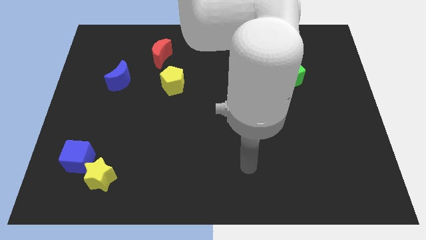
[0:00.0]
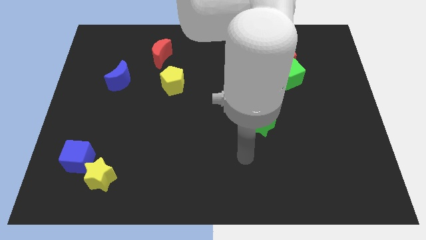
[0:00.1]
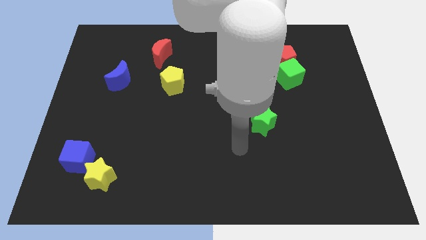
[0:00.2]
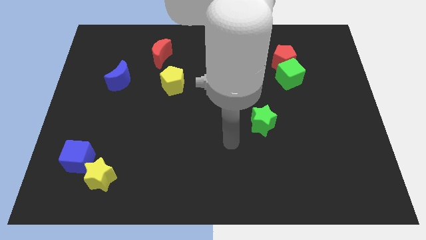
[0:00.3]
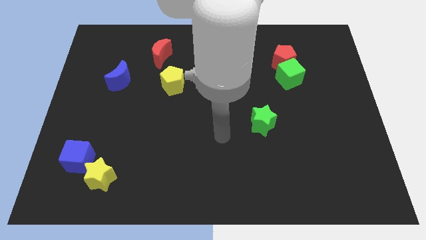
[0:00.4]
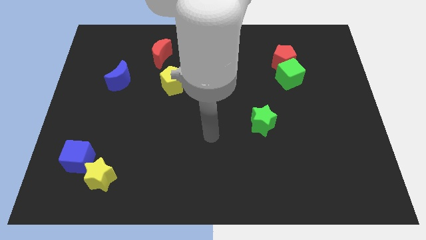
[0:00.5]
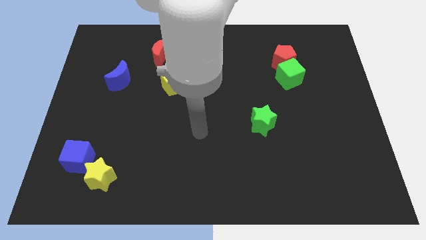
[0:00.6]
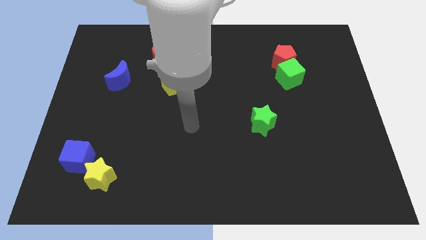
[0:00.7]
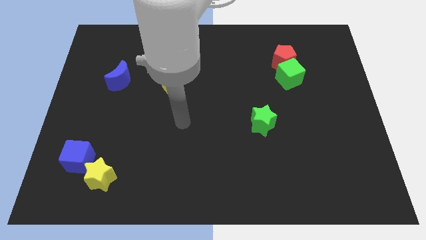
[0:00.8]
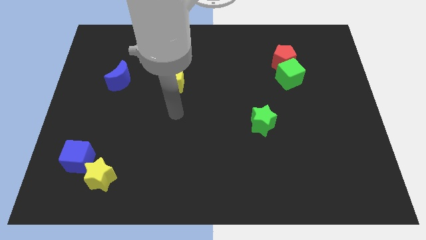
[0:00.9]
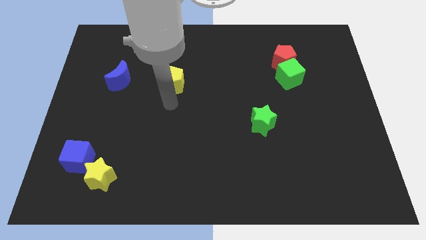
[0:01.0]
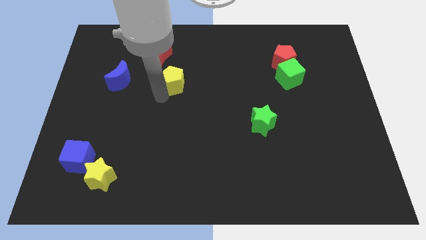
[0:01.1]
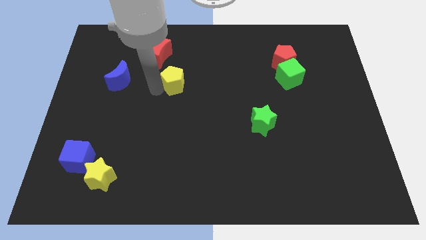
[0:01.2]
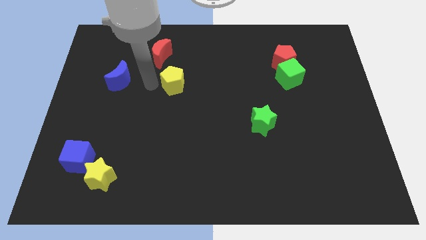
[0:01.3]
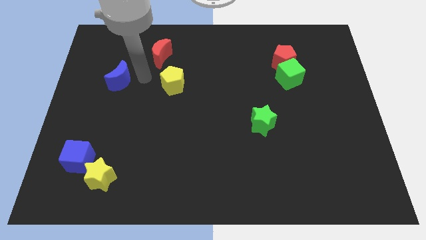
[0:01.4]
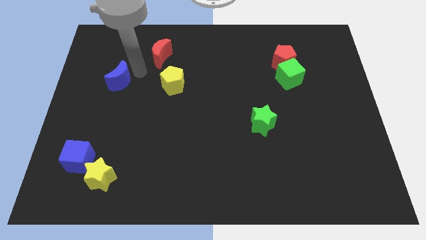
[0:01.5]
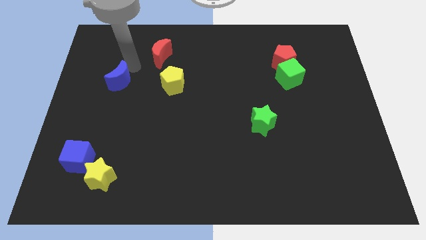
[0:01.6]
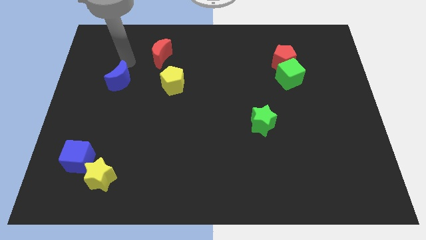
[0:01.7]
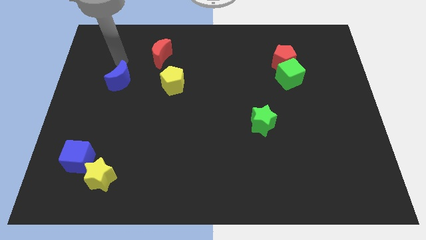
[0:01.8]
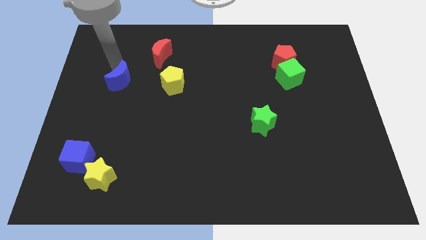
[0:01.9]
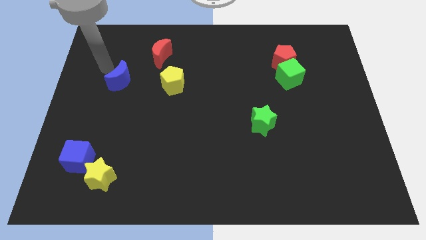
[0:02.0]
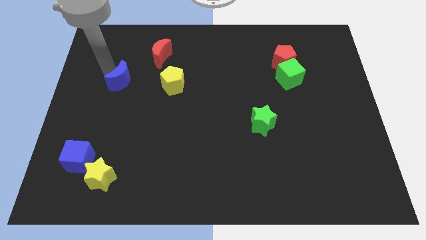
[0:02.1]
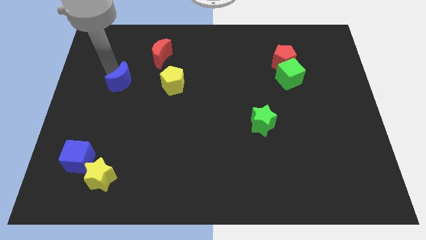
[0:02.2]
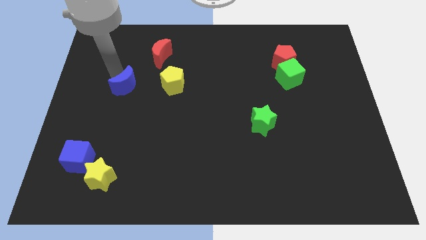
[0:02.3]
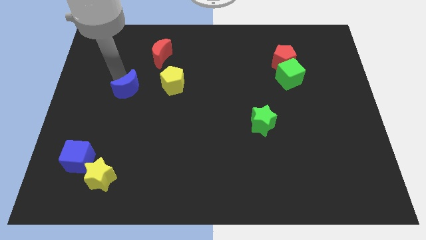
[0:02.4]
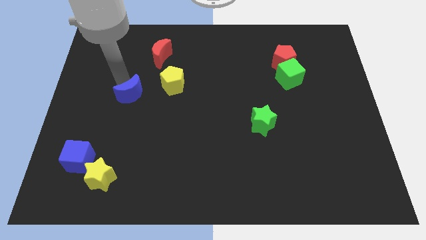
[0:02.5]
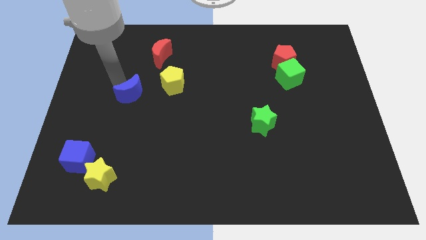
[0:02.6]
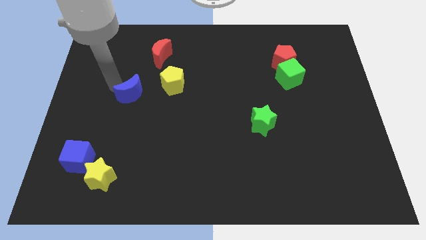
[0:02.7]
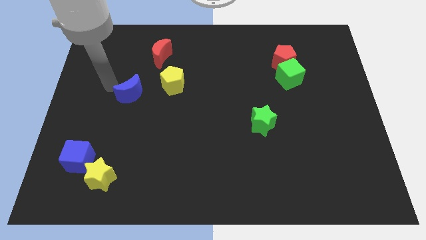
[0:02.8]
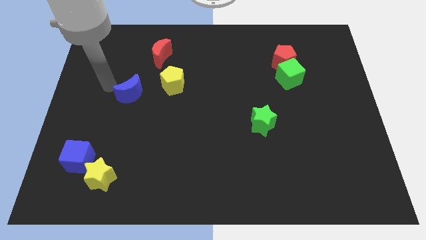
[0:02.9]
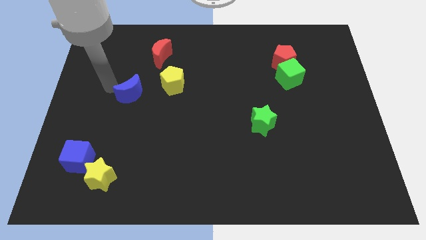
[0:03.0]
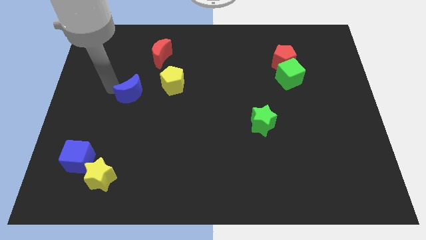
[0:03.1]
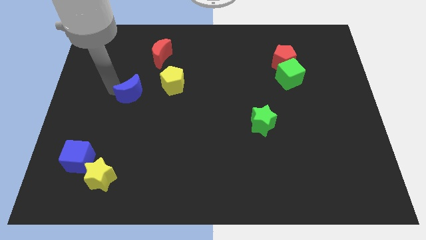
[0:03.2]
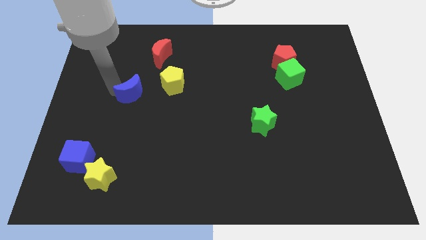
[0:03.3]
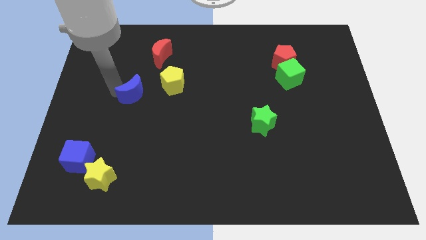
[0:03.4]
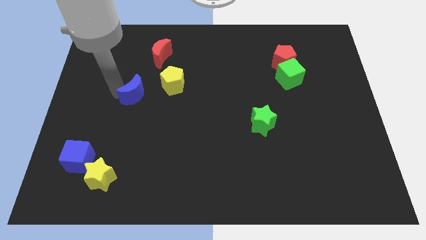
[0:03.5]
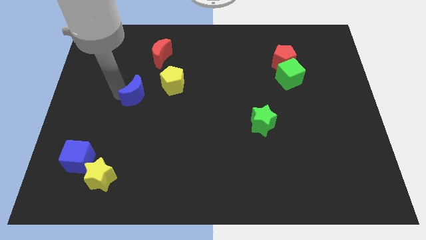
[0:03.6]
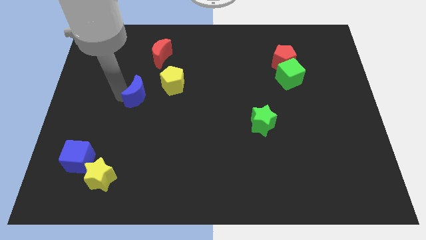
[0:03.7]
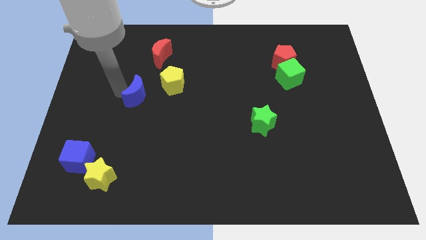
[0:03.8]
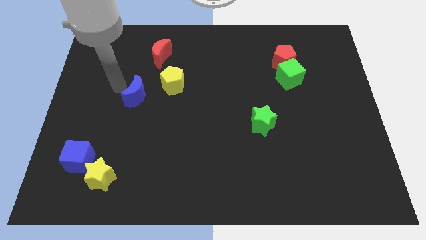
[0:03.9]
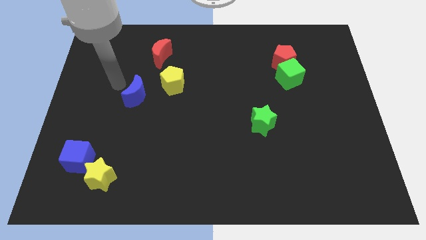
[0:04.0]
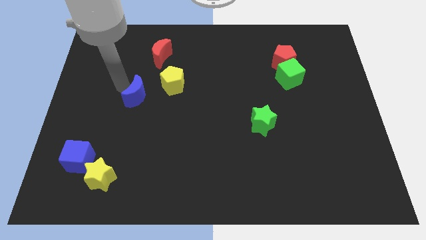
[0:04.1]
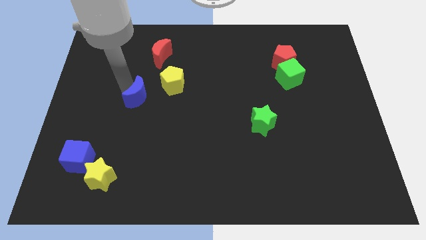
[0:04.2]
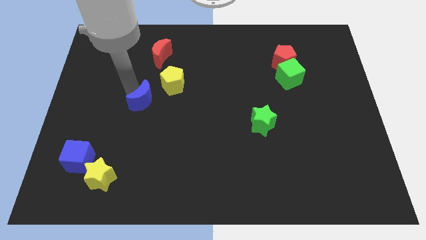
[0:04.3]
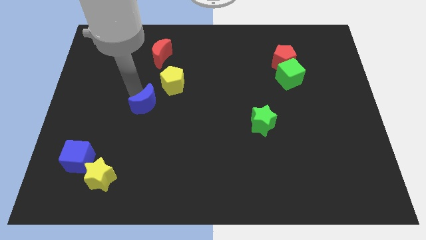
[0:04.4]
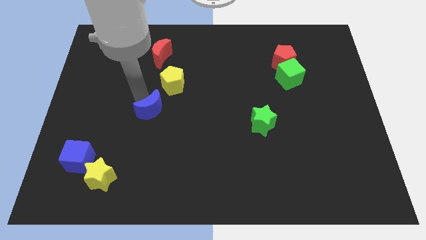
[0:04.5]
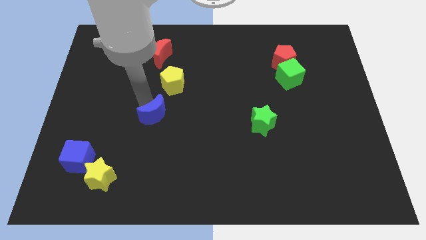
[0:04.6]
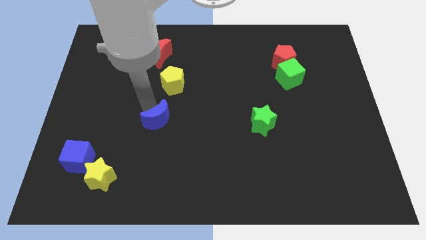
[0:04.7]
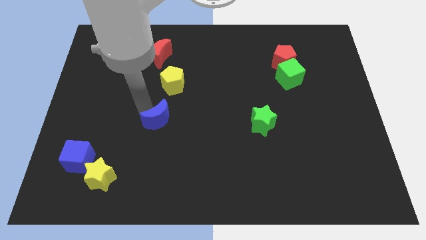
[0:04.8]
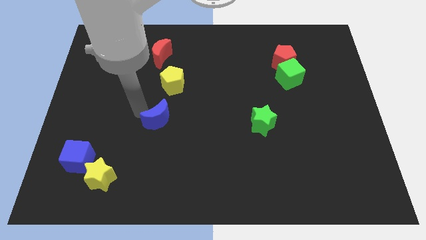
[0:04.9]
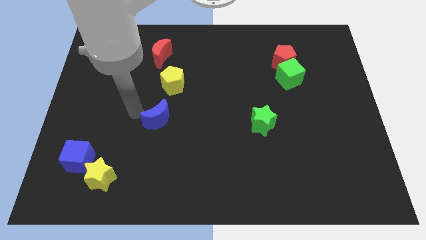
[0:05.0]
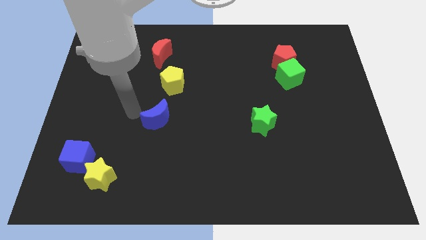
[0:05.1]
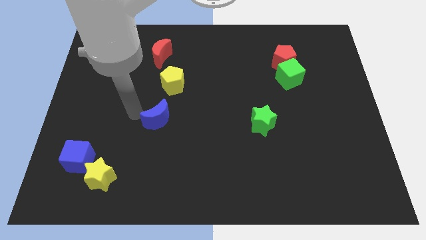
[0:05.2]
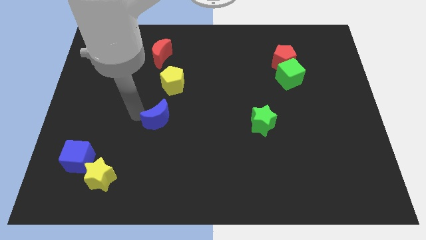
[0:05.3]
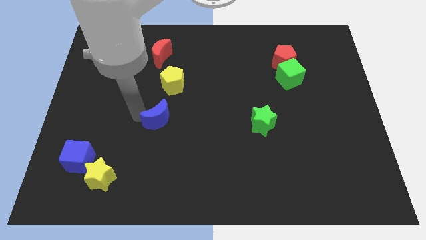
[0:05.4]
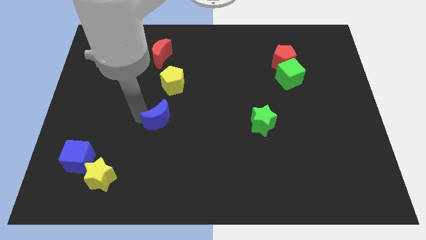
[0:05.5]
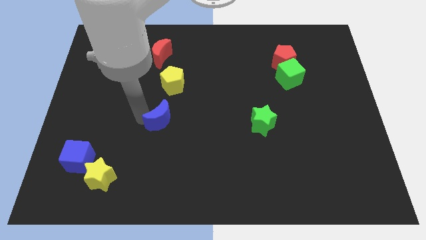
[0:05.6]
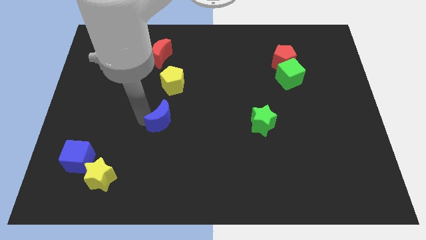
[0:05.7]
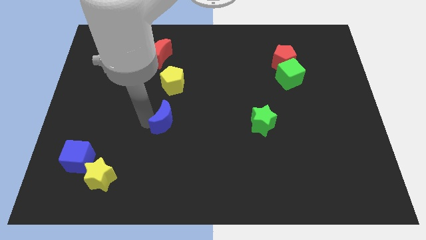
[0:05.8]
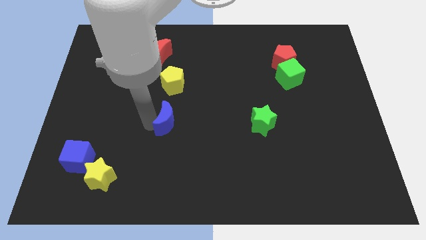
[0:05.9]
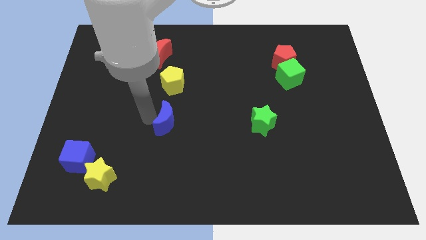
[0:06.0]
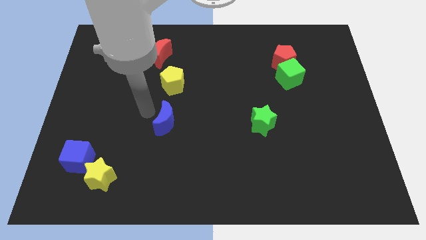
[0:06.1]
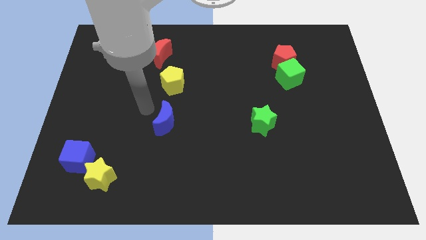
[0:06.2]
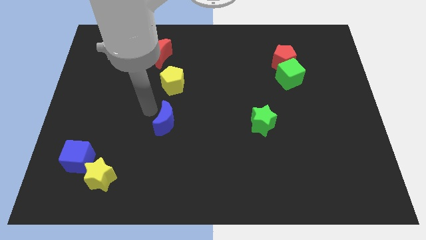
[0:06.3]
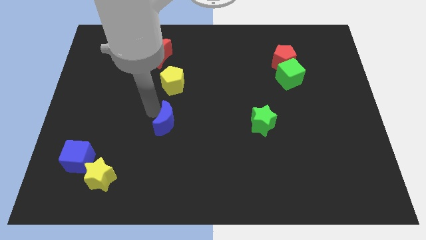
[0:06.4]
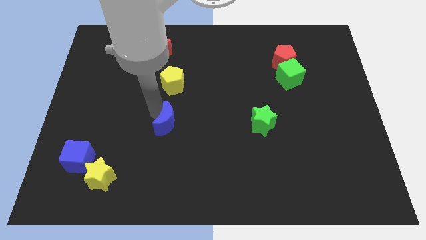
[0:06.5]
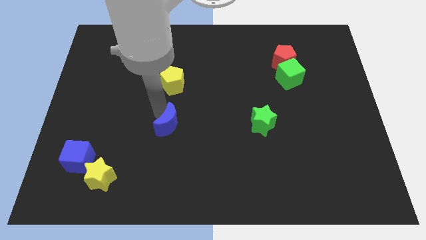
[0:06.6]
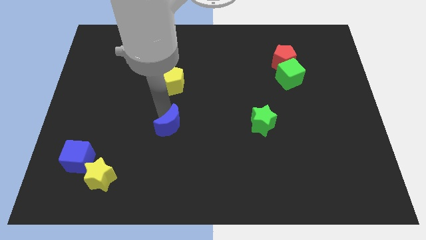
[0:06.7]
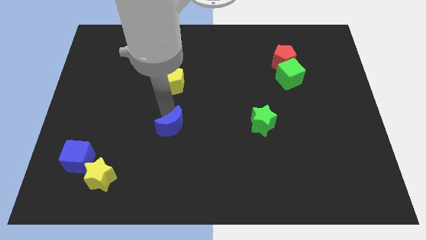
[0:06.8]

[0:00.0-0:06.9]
slide the blue moon downwards and right diagonally

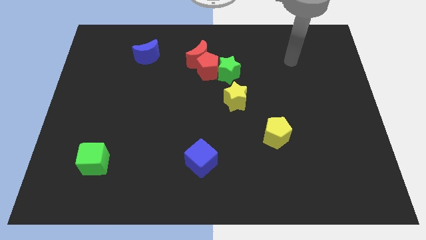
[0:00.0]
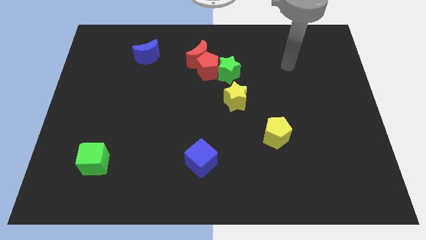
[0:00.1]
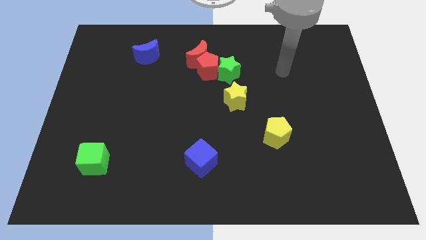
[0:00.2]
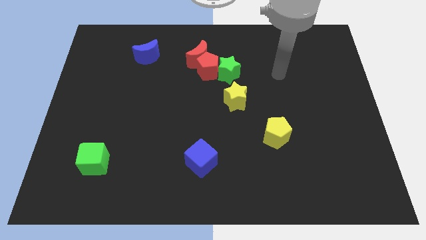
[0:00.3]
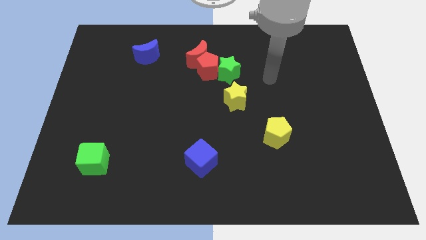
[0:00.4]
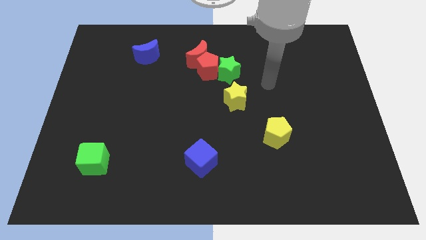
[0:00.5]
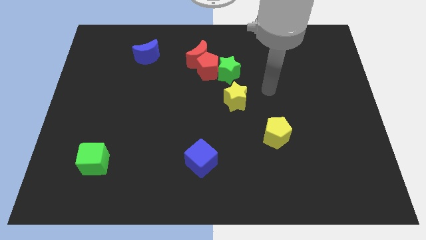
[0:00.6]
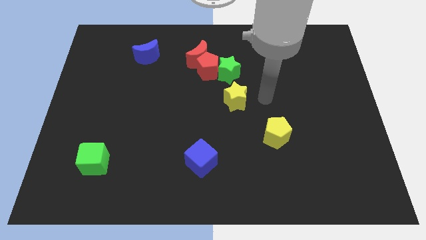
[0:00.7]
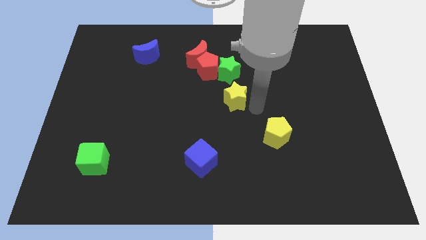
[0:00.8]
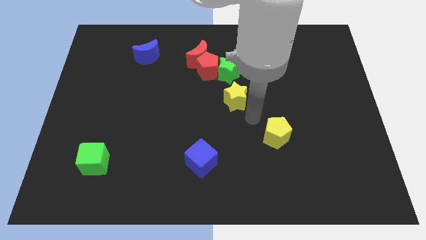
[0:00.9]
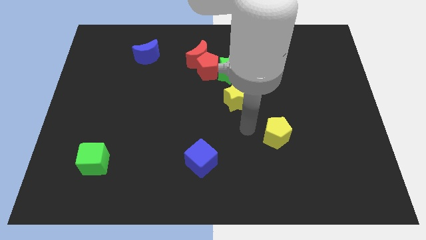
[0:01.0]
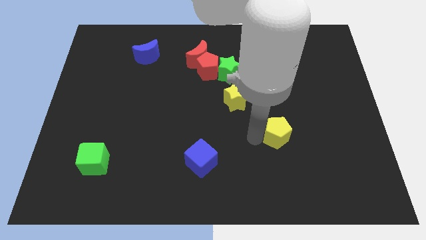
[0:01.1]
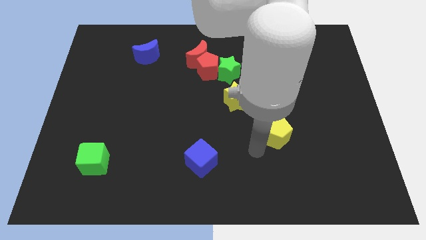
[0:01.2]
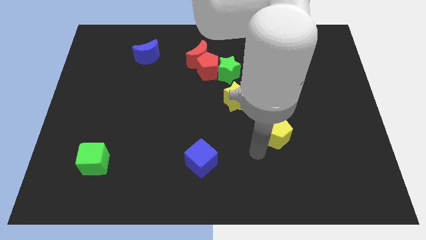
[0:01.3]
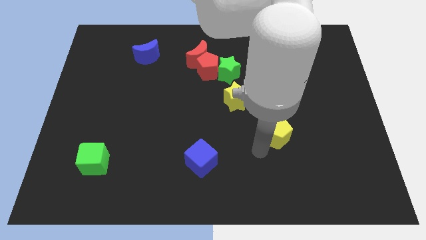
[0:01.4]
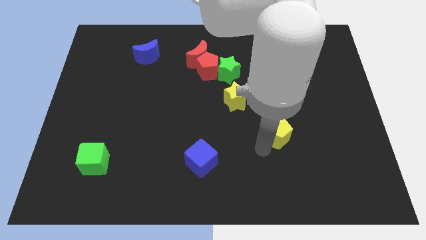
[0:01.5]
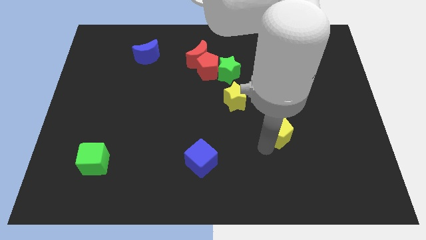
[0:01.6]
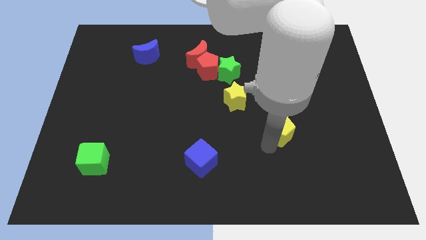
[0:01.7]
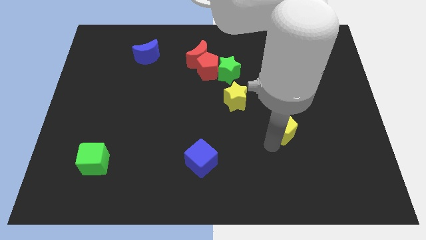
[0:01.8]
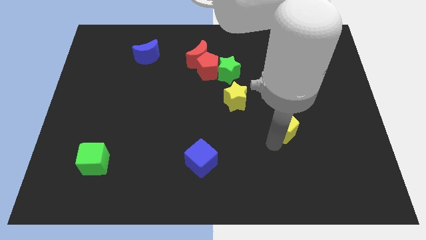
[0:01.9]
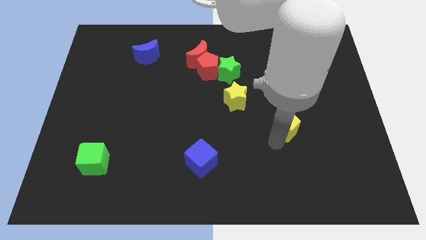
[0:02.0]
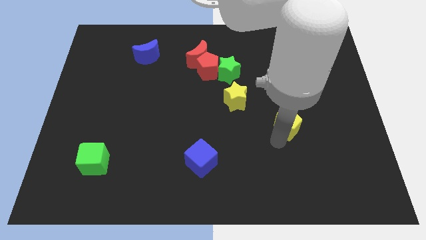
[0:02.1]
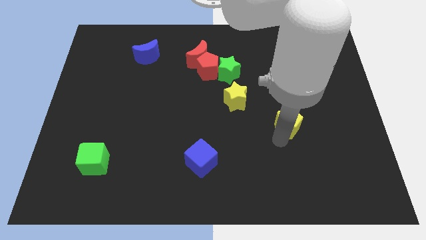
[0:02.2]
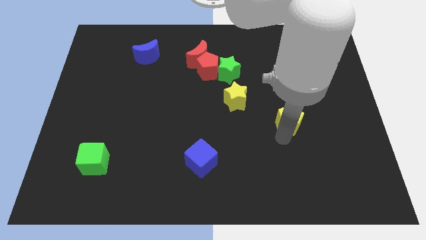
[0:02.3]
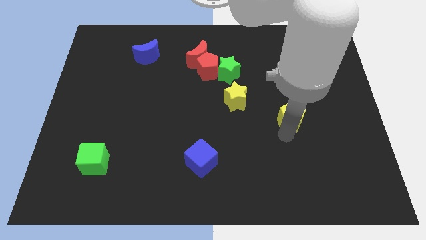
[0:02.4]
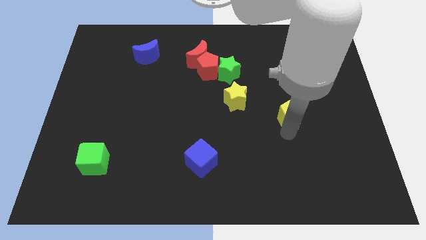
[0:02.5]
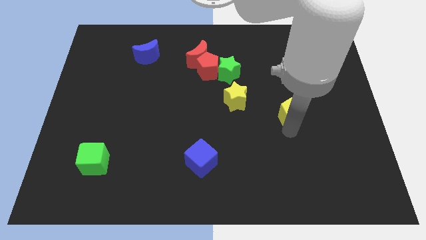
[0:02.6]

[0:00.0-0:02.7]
move the yellow pentagon a little diagonally upwards and right
